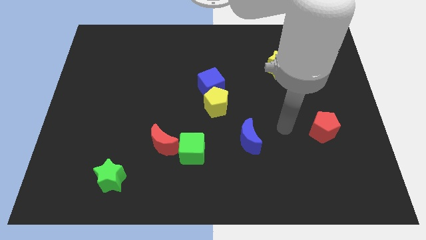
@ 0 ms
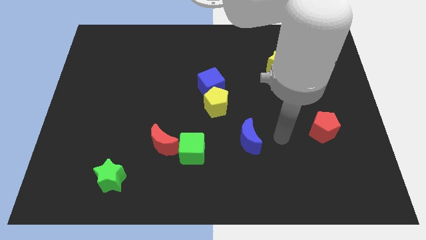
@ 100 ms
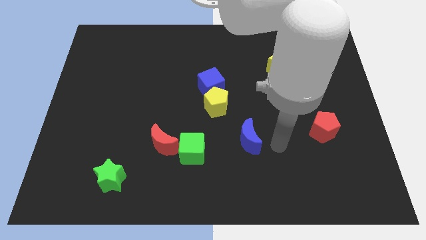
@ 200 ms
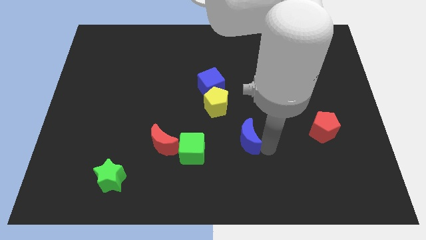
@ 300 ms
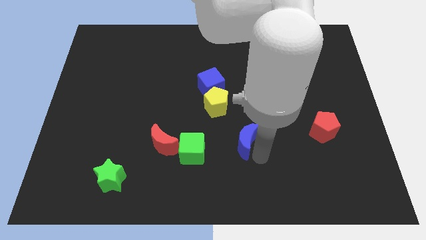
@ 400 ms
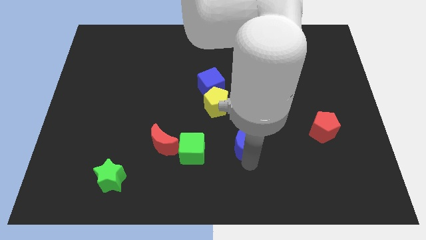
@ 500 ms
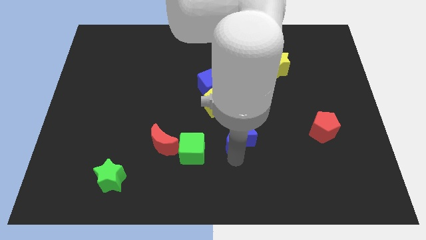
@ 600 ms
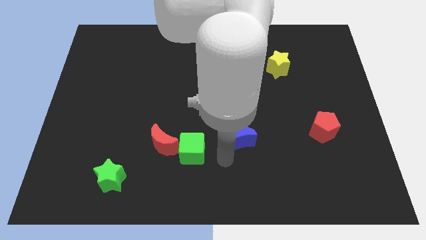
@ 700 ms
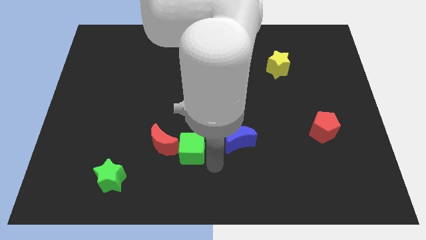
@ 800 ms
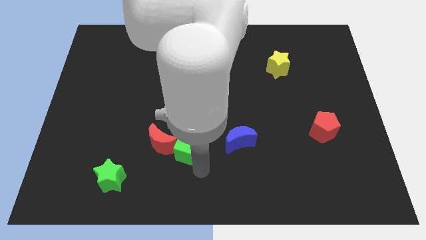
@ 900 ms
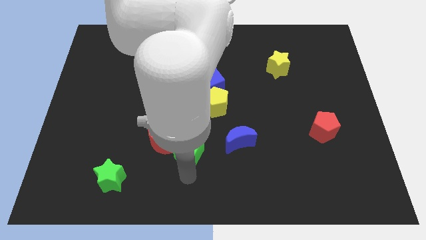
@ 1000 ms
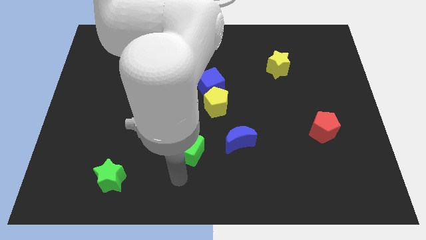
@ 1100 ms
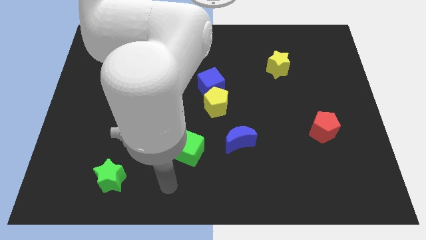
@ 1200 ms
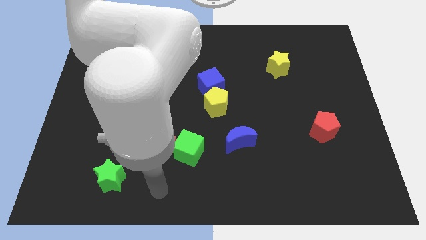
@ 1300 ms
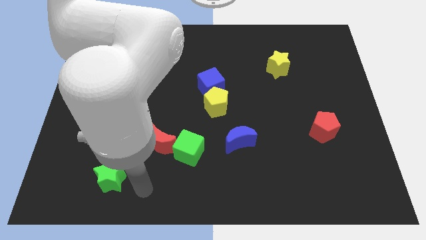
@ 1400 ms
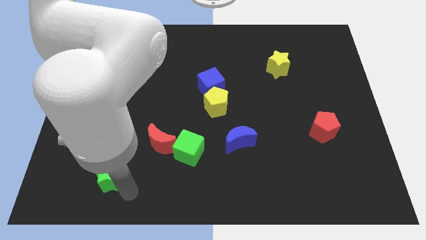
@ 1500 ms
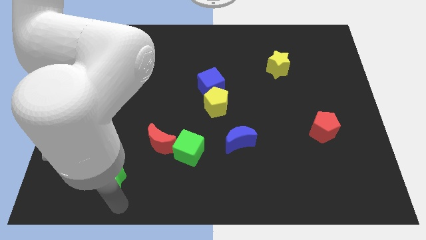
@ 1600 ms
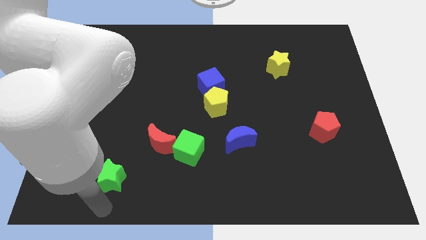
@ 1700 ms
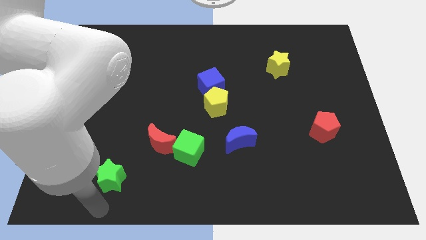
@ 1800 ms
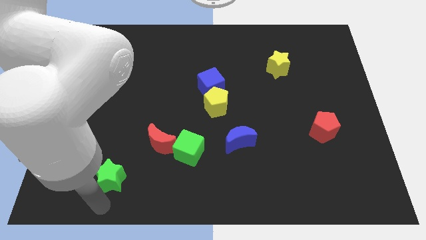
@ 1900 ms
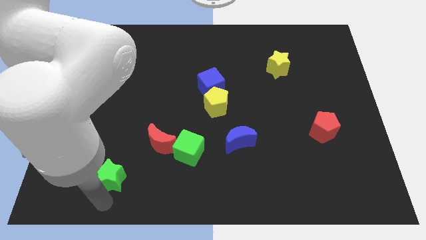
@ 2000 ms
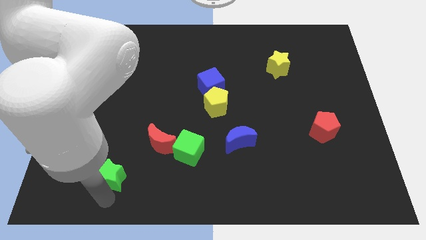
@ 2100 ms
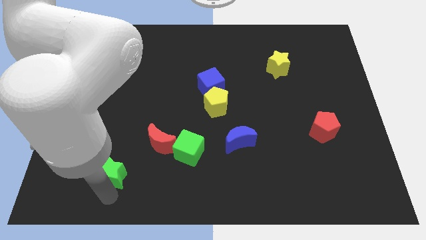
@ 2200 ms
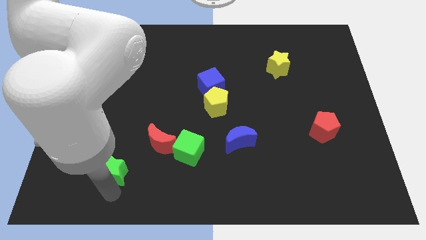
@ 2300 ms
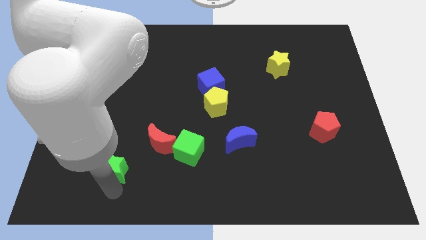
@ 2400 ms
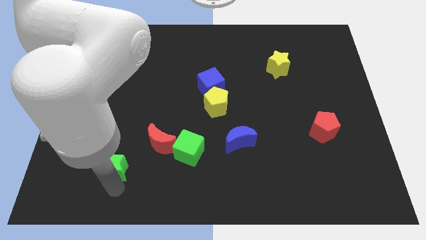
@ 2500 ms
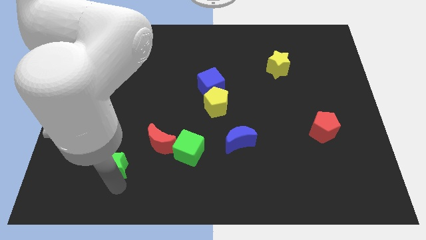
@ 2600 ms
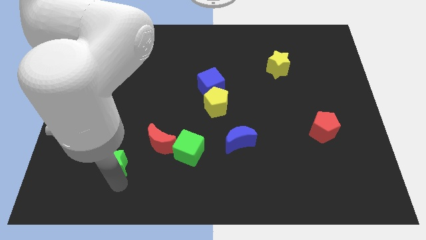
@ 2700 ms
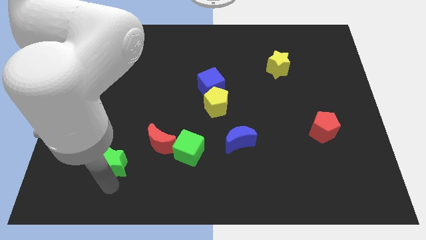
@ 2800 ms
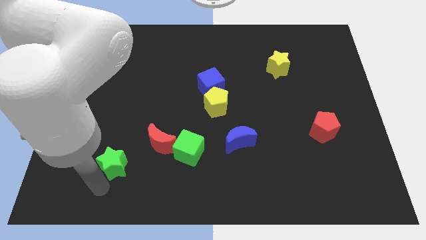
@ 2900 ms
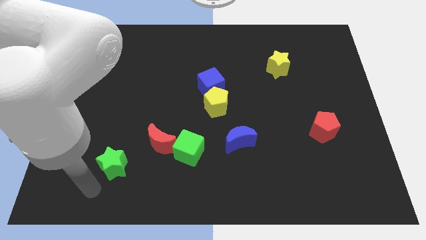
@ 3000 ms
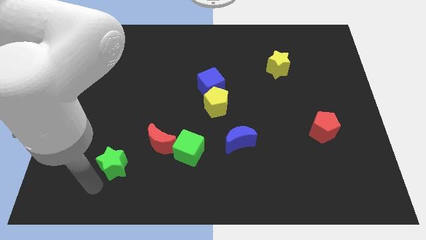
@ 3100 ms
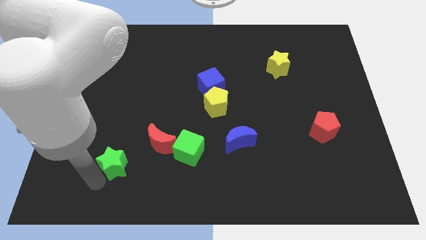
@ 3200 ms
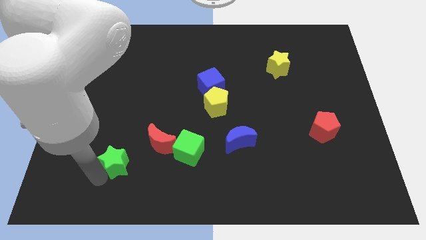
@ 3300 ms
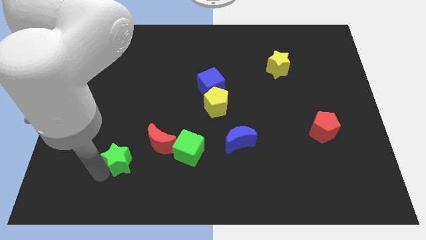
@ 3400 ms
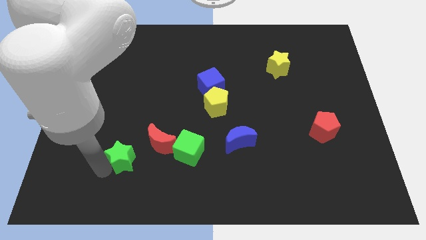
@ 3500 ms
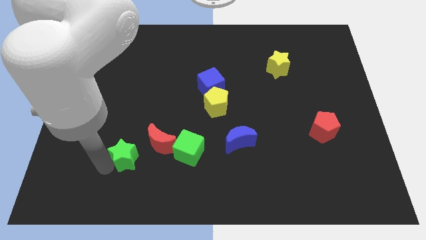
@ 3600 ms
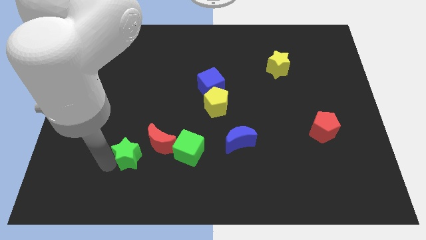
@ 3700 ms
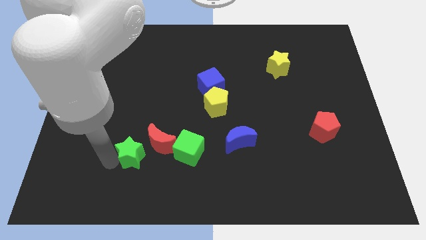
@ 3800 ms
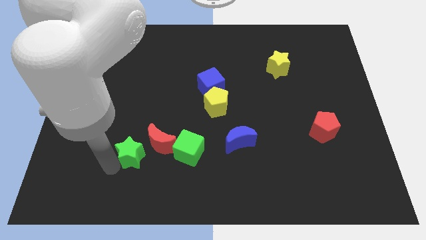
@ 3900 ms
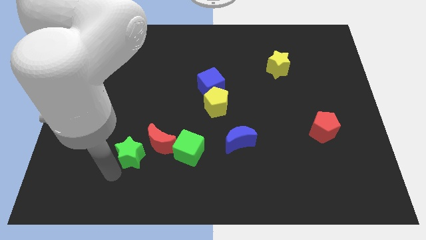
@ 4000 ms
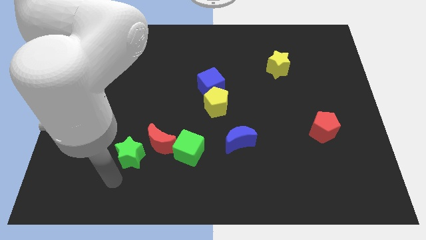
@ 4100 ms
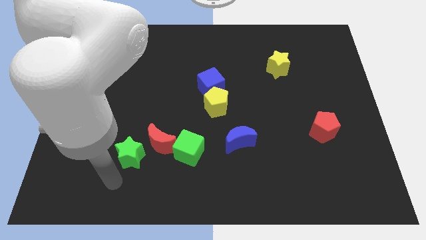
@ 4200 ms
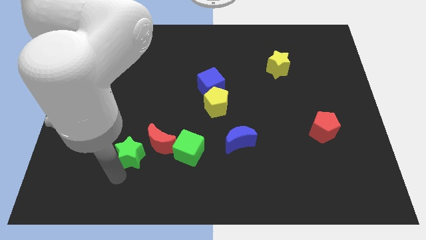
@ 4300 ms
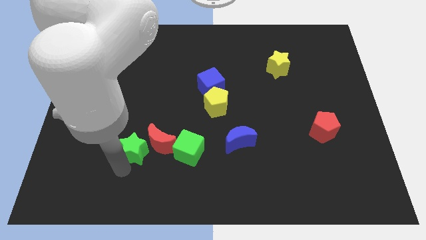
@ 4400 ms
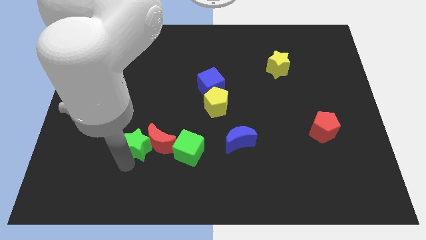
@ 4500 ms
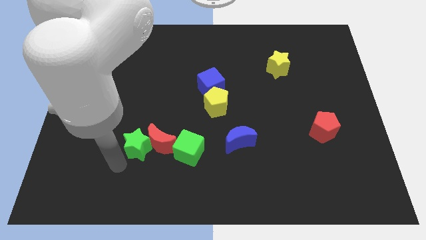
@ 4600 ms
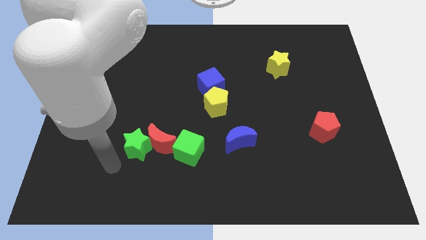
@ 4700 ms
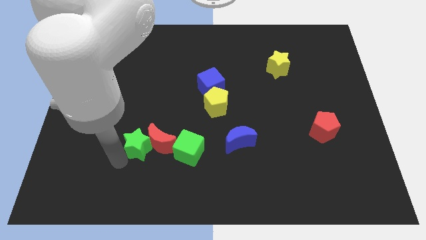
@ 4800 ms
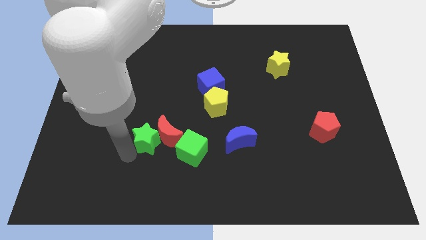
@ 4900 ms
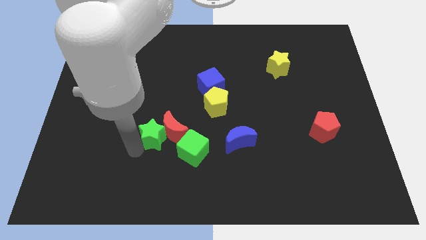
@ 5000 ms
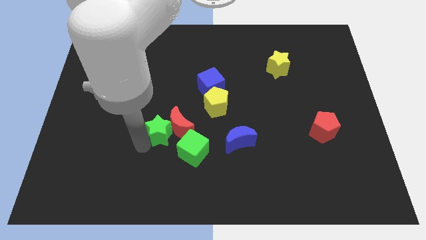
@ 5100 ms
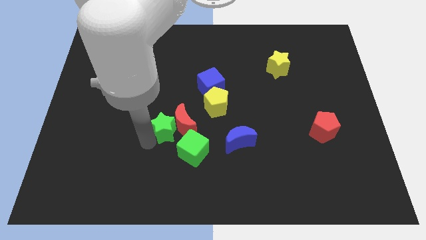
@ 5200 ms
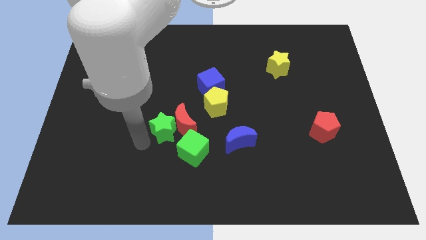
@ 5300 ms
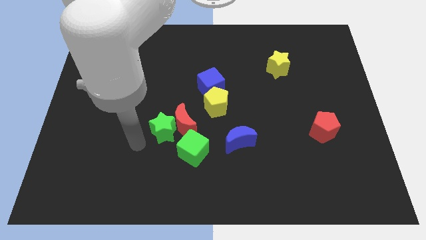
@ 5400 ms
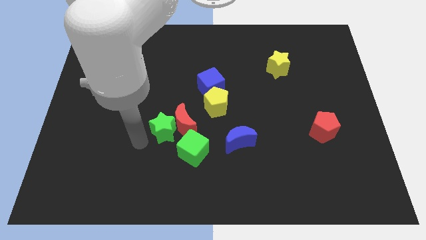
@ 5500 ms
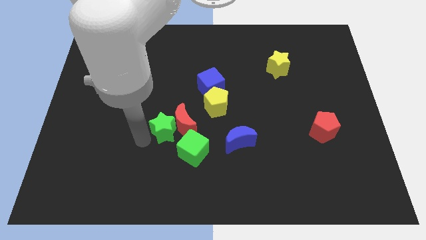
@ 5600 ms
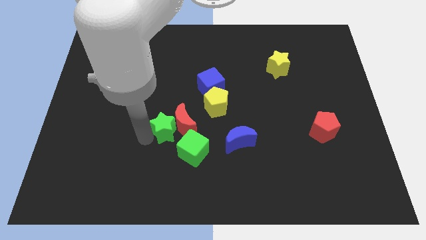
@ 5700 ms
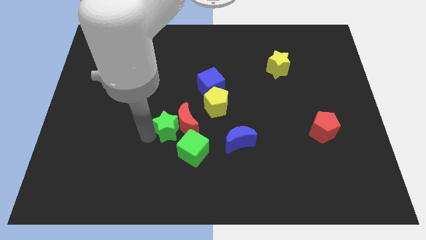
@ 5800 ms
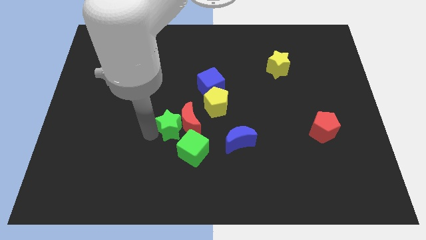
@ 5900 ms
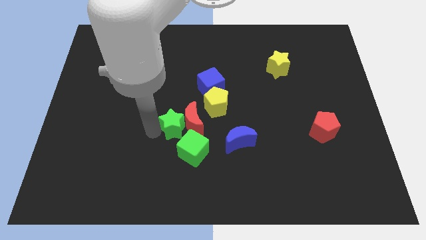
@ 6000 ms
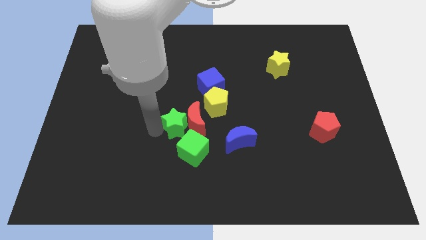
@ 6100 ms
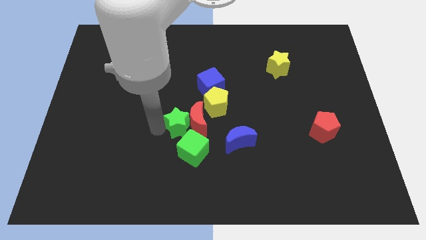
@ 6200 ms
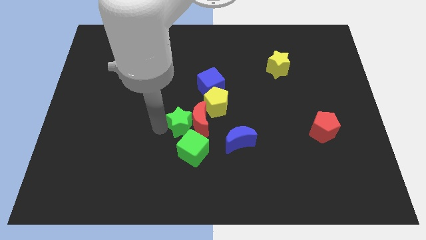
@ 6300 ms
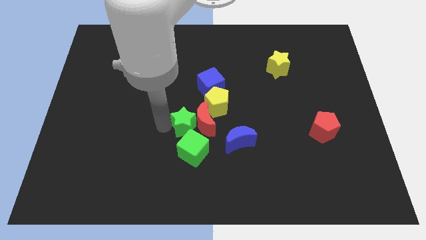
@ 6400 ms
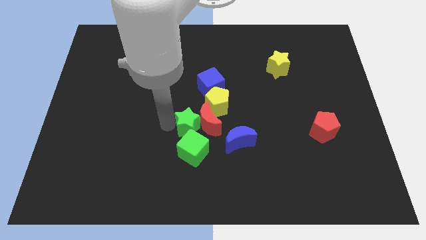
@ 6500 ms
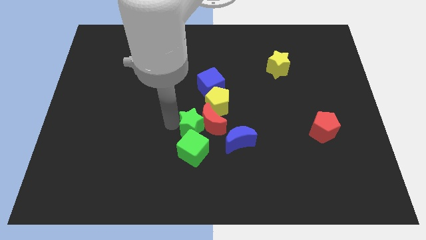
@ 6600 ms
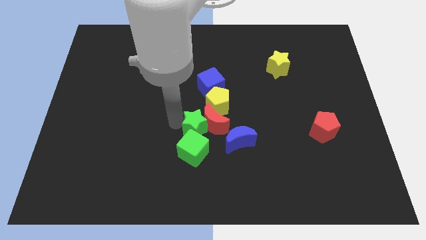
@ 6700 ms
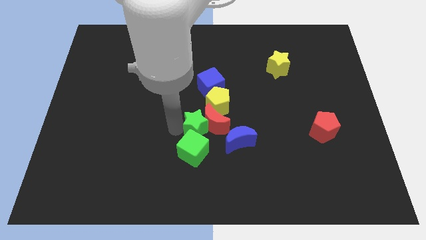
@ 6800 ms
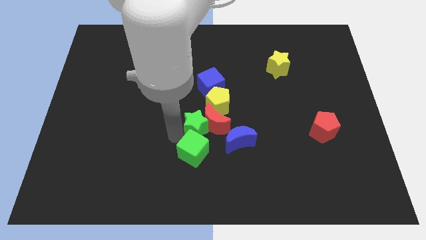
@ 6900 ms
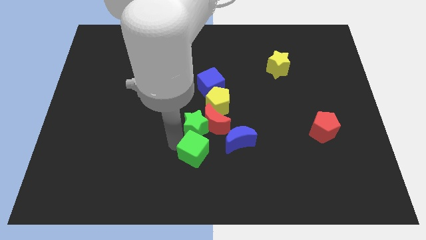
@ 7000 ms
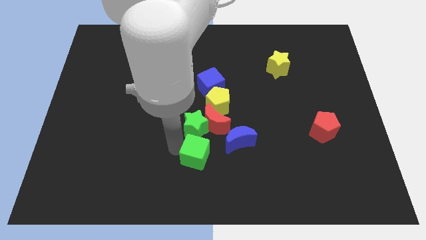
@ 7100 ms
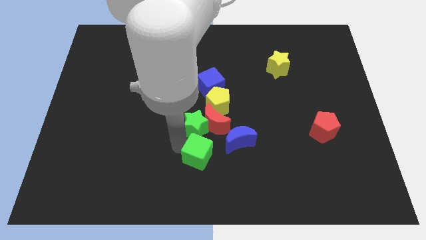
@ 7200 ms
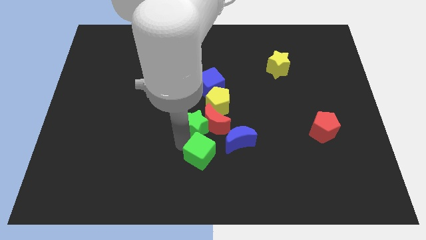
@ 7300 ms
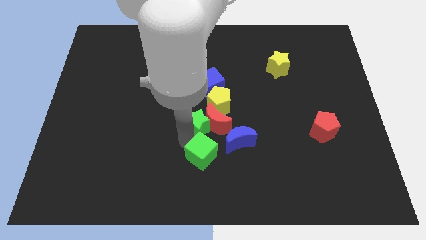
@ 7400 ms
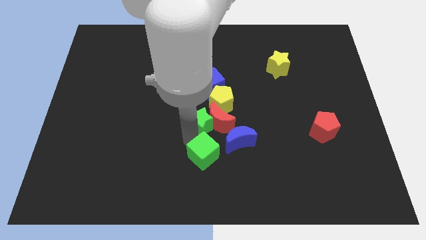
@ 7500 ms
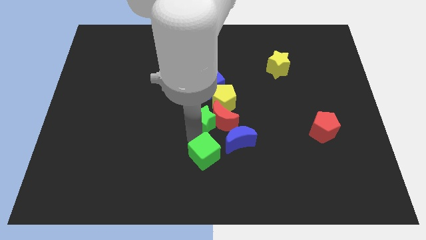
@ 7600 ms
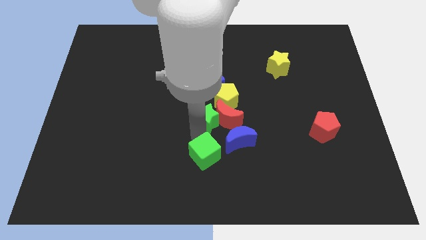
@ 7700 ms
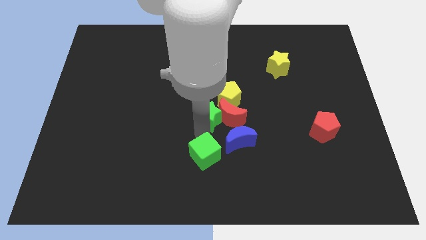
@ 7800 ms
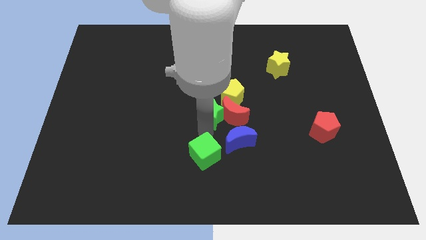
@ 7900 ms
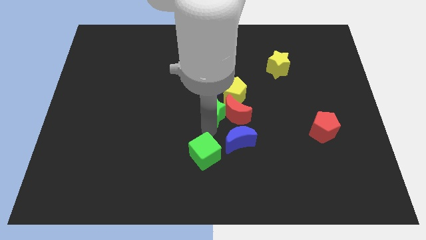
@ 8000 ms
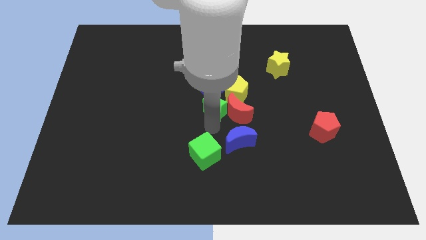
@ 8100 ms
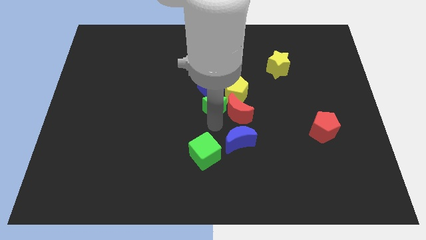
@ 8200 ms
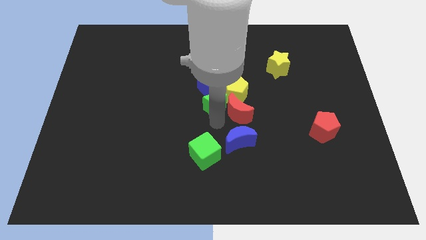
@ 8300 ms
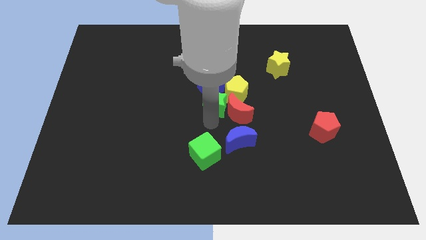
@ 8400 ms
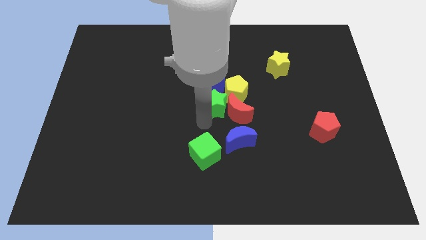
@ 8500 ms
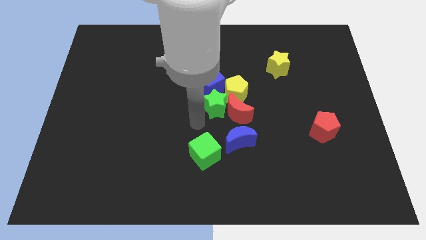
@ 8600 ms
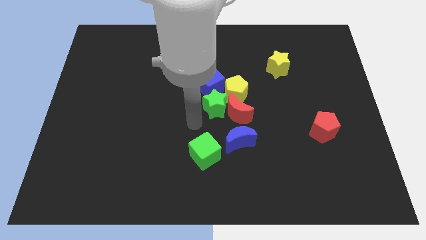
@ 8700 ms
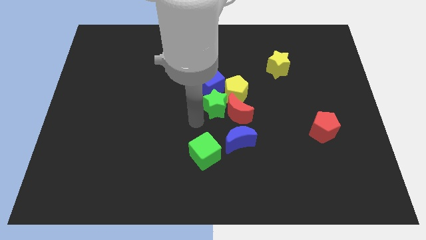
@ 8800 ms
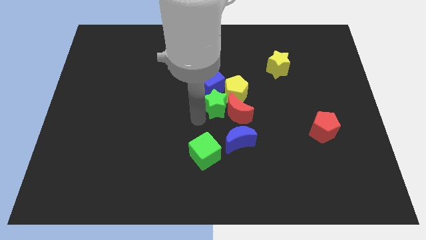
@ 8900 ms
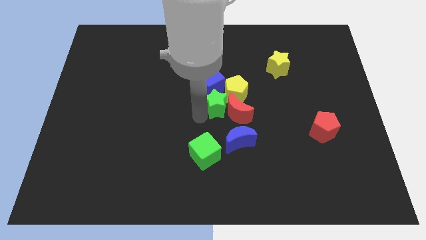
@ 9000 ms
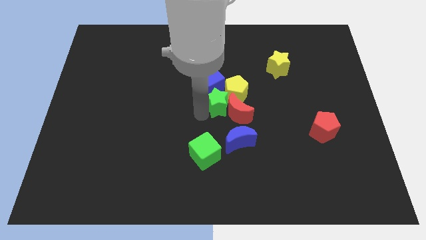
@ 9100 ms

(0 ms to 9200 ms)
slide the green star next to the yellow pentagon
